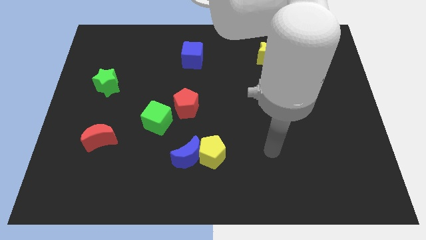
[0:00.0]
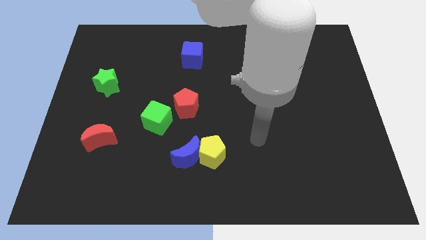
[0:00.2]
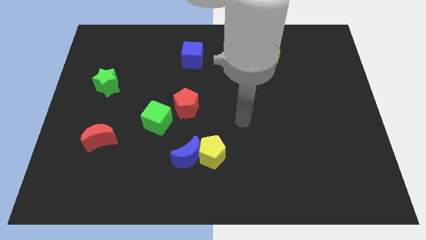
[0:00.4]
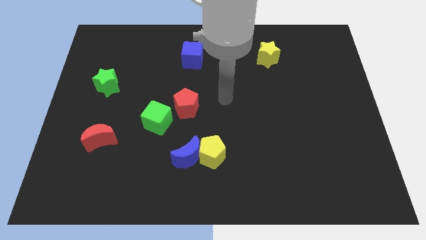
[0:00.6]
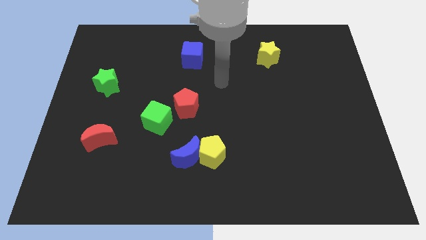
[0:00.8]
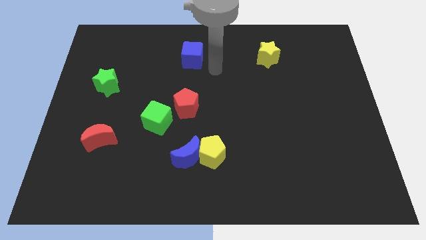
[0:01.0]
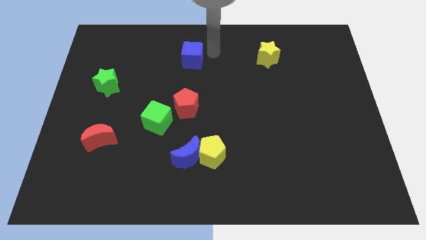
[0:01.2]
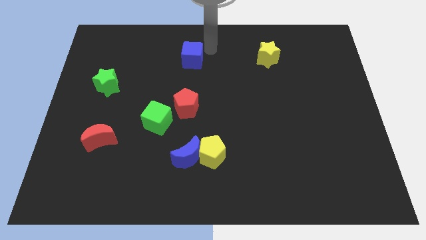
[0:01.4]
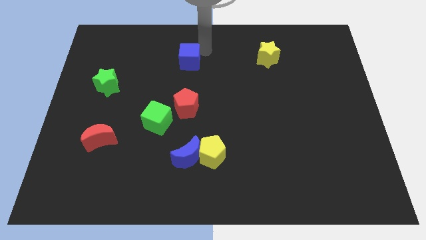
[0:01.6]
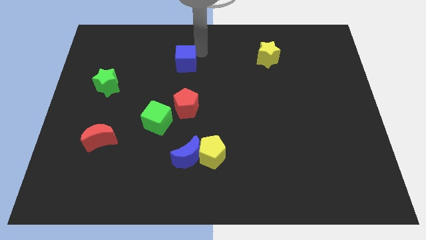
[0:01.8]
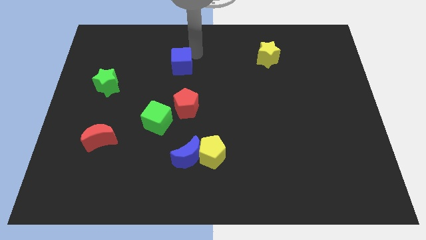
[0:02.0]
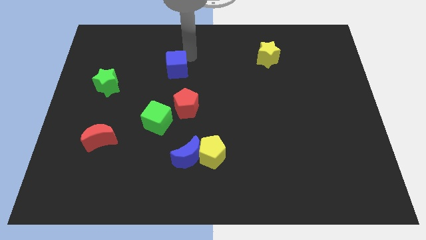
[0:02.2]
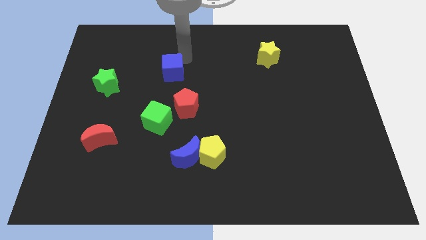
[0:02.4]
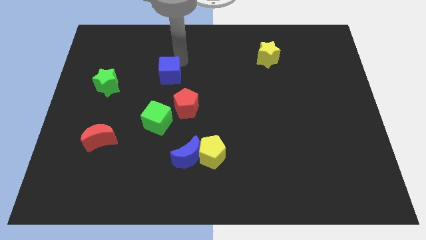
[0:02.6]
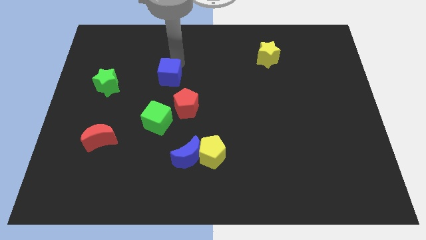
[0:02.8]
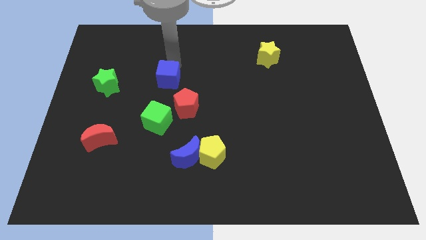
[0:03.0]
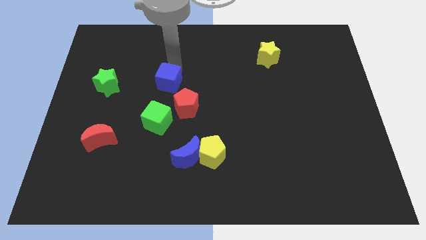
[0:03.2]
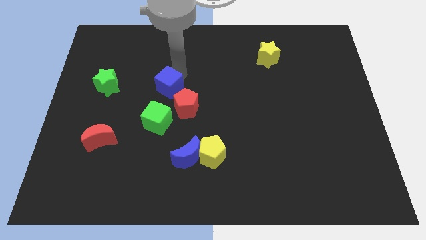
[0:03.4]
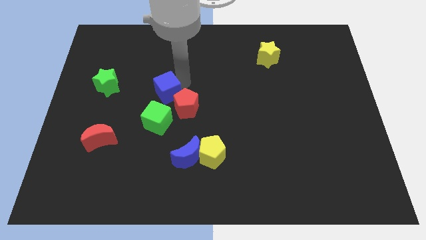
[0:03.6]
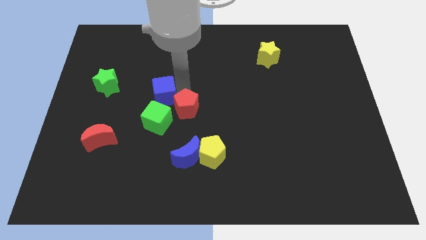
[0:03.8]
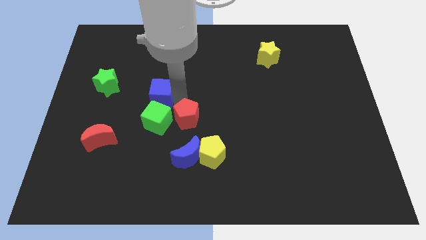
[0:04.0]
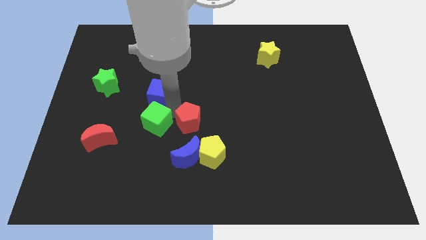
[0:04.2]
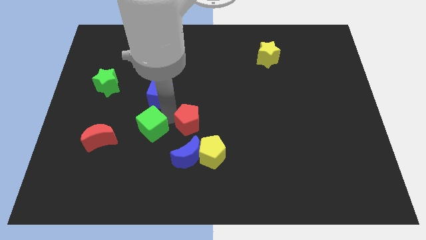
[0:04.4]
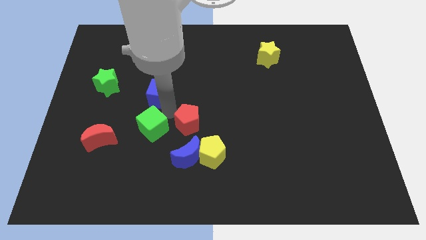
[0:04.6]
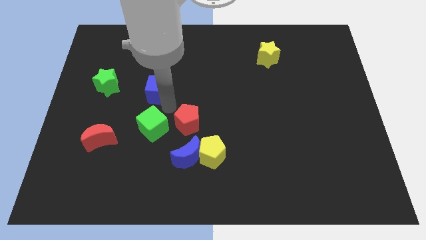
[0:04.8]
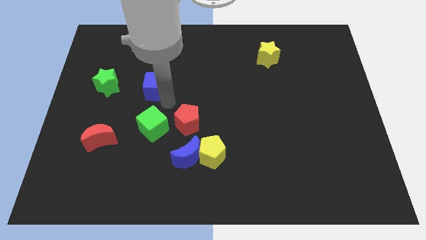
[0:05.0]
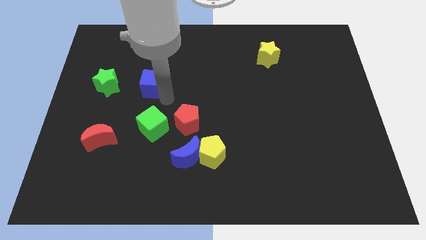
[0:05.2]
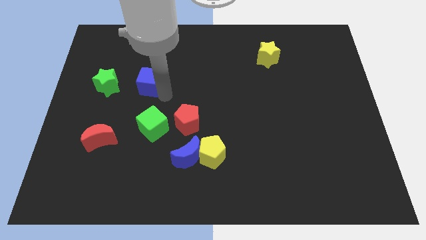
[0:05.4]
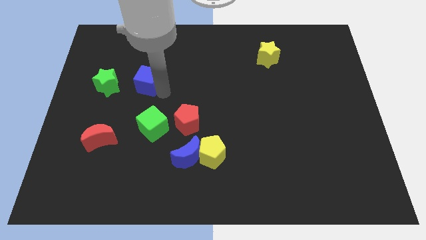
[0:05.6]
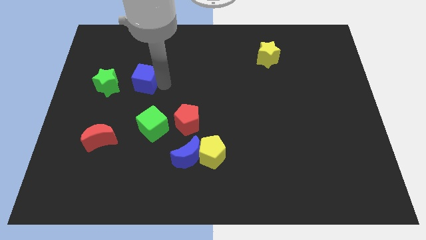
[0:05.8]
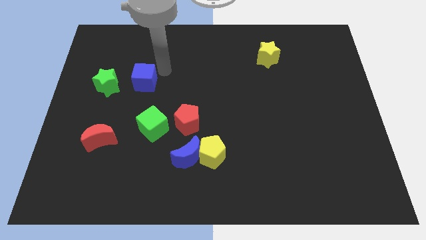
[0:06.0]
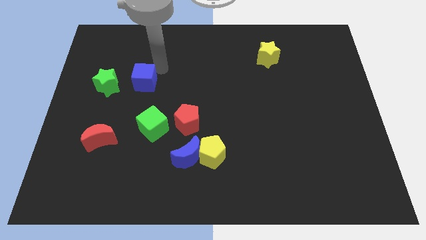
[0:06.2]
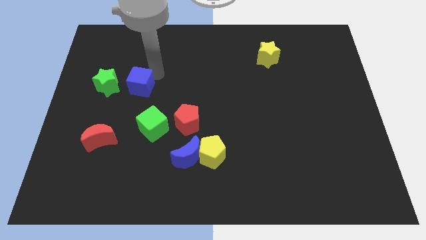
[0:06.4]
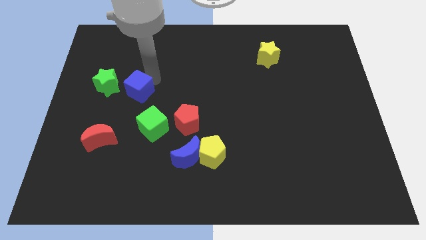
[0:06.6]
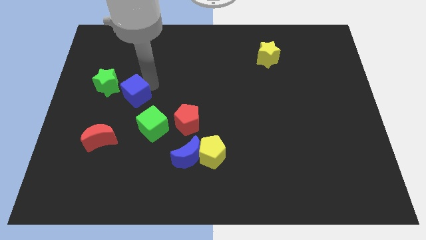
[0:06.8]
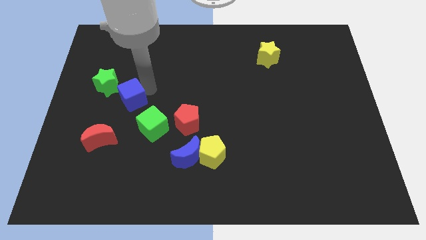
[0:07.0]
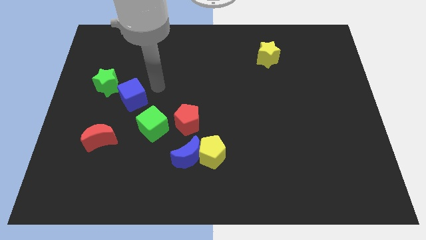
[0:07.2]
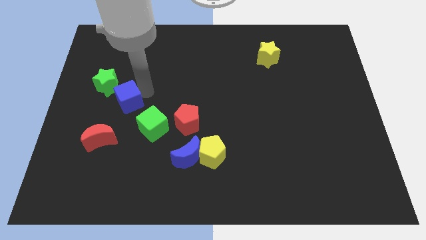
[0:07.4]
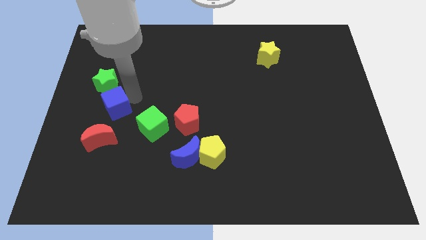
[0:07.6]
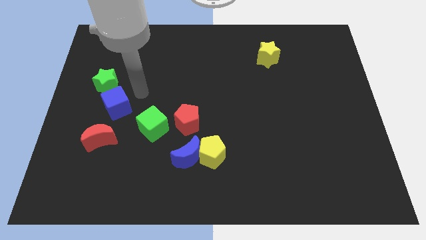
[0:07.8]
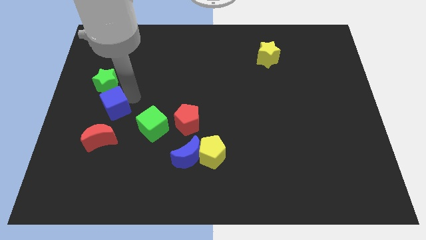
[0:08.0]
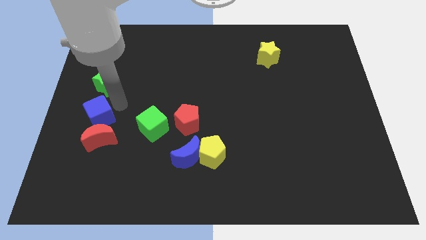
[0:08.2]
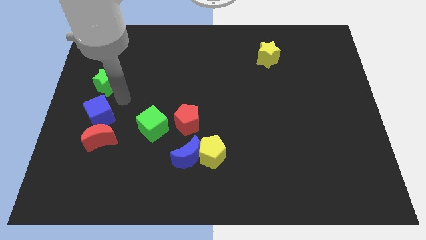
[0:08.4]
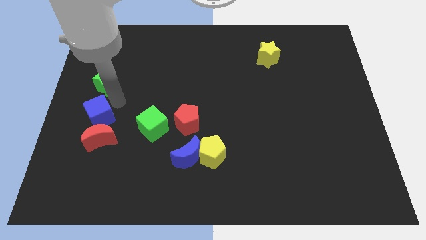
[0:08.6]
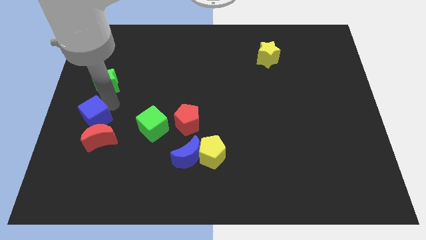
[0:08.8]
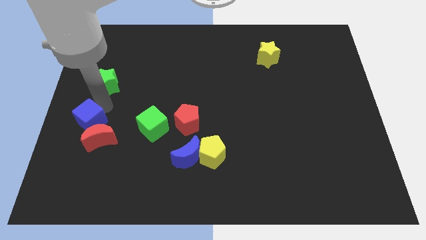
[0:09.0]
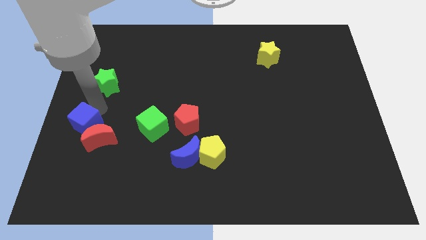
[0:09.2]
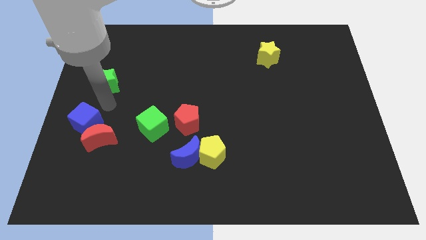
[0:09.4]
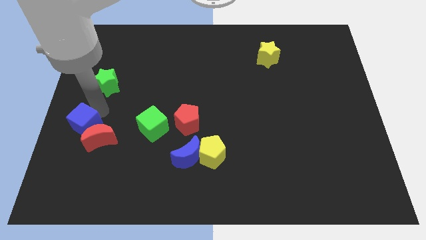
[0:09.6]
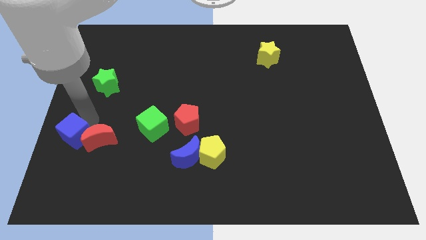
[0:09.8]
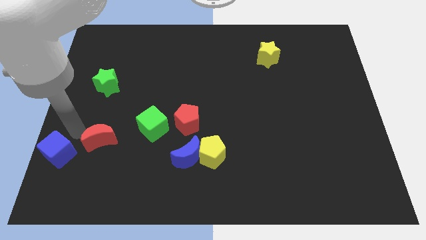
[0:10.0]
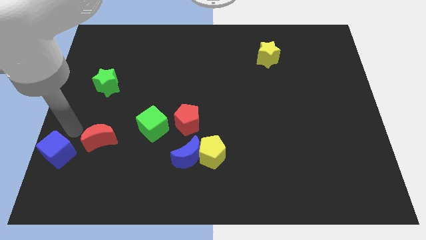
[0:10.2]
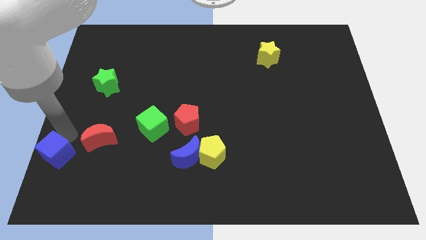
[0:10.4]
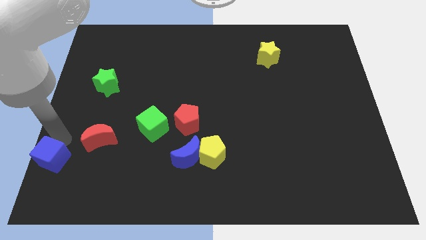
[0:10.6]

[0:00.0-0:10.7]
push the blue cube to the lower left corner

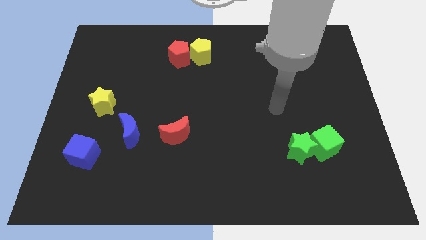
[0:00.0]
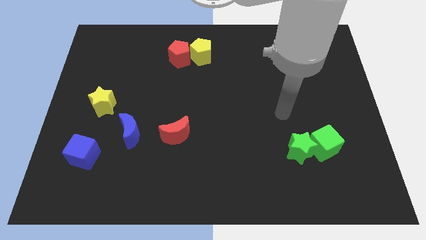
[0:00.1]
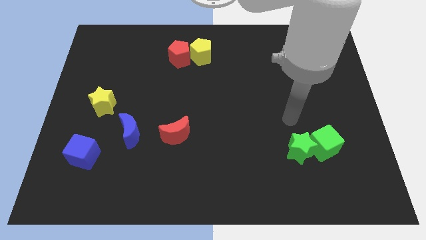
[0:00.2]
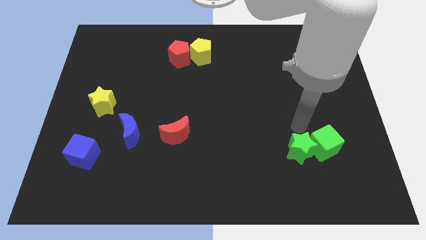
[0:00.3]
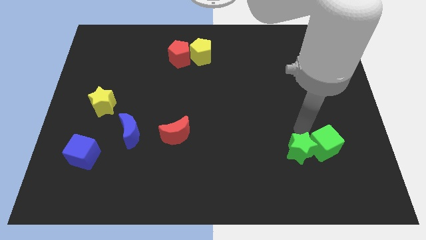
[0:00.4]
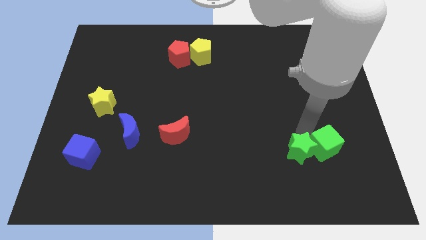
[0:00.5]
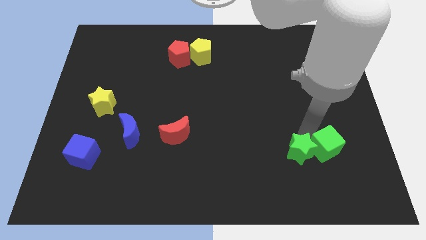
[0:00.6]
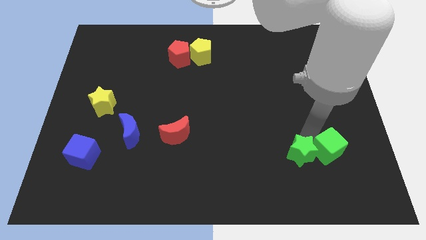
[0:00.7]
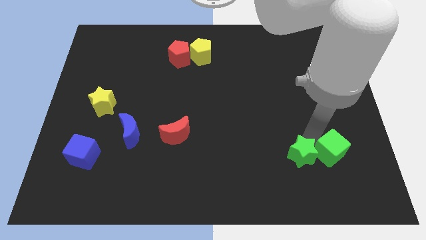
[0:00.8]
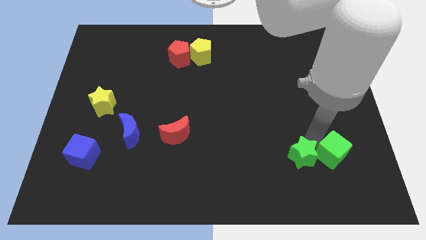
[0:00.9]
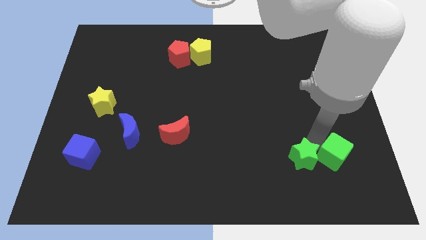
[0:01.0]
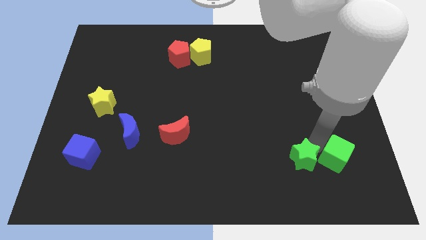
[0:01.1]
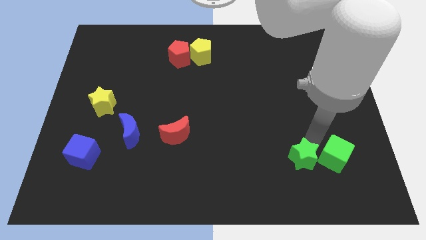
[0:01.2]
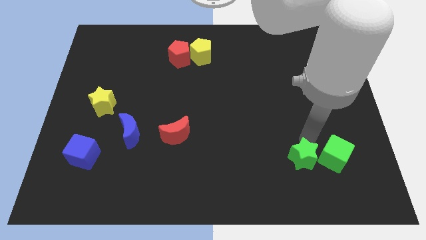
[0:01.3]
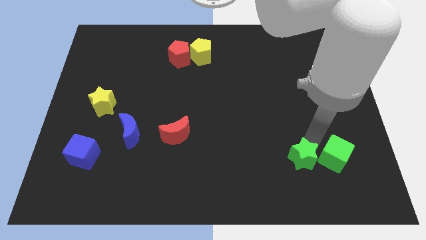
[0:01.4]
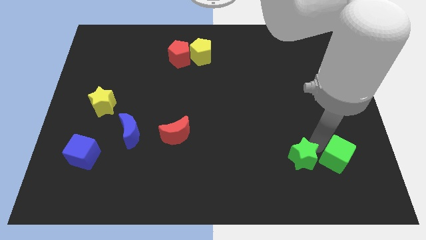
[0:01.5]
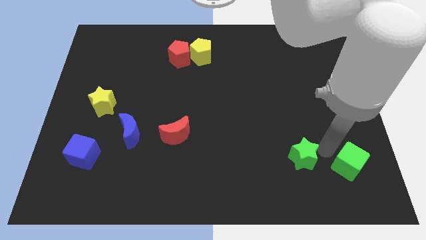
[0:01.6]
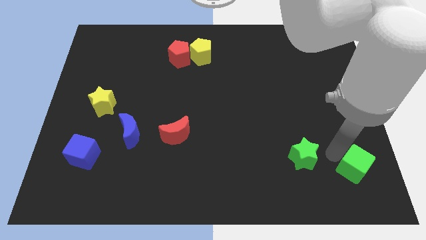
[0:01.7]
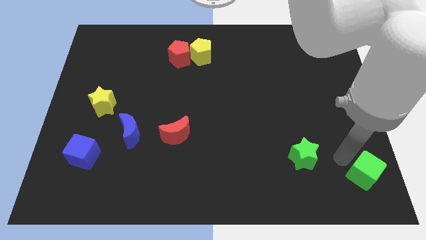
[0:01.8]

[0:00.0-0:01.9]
put the green cube to the lower right corner
